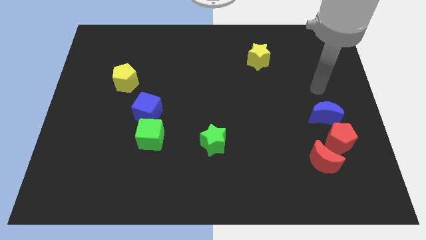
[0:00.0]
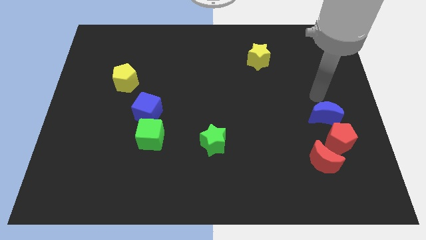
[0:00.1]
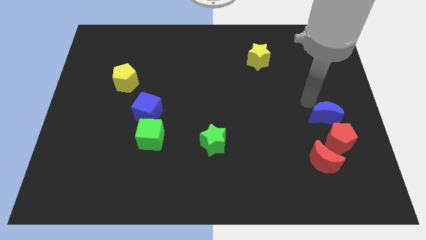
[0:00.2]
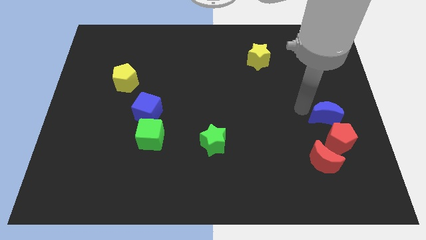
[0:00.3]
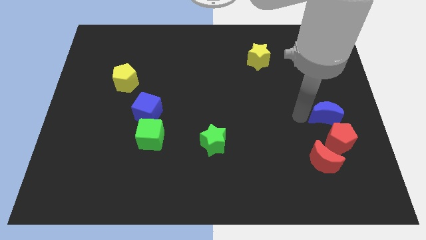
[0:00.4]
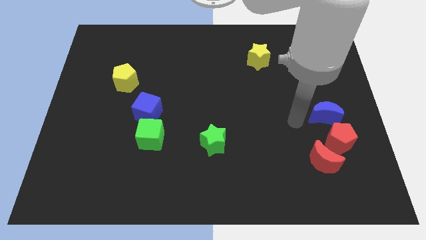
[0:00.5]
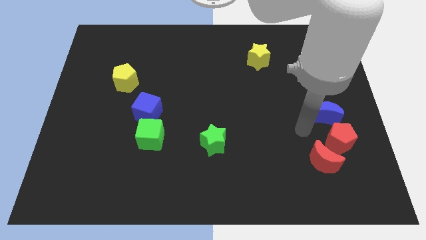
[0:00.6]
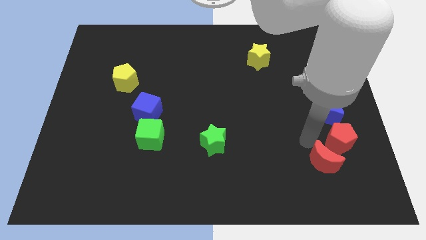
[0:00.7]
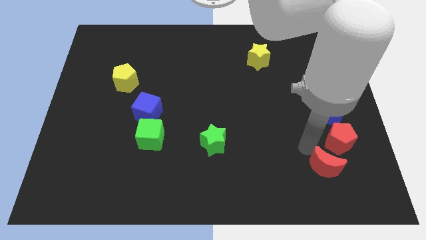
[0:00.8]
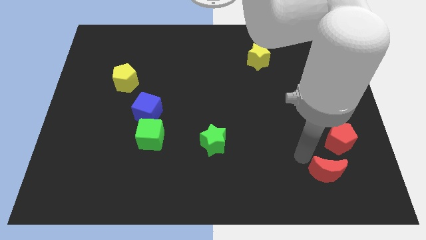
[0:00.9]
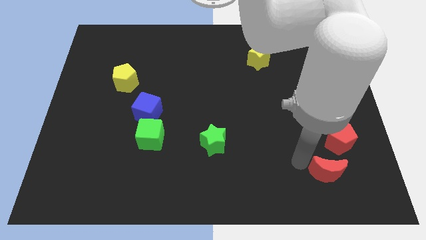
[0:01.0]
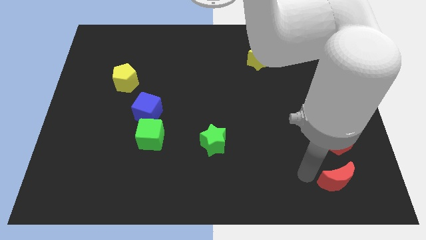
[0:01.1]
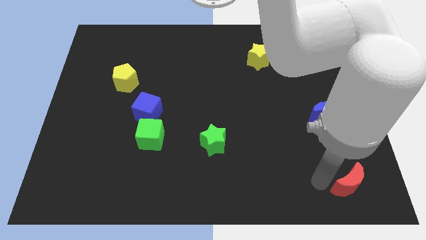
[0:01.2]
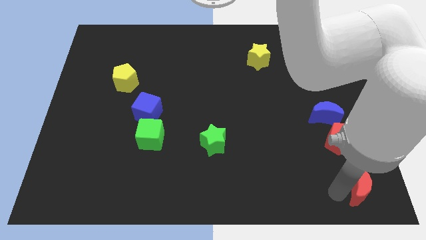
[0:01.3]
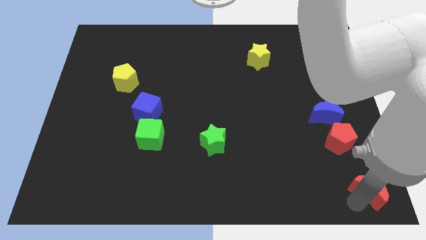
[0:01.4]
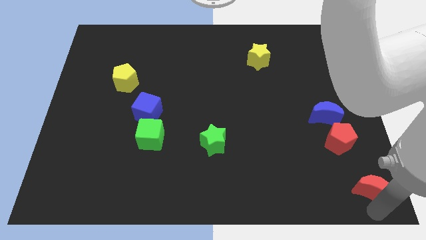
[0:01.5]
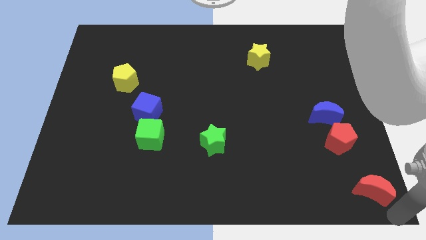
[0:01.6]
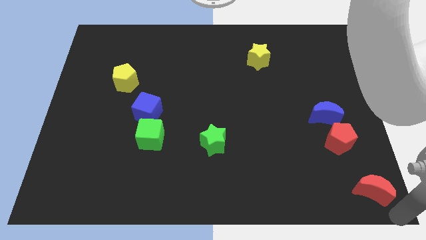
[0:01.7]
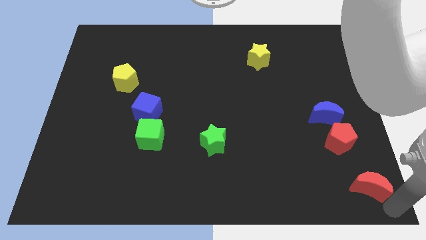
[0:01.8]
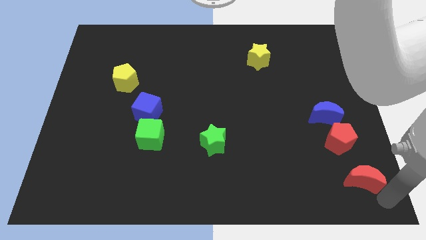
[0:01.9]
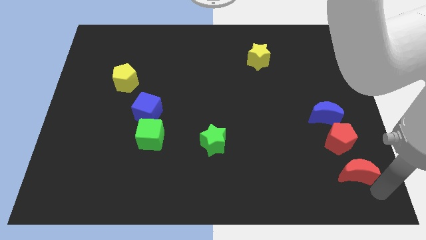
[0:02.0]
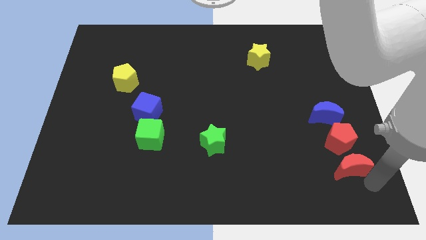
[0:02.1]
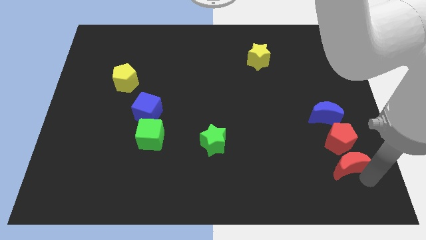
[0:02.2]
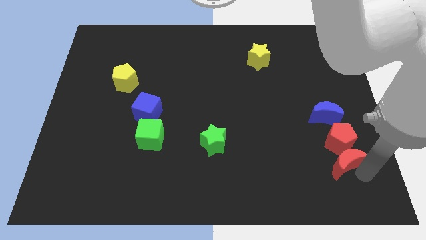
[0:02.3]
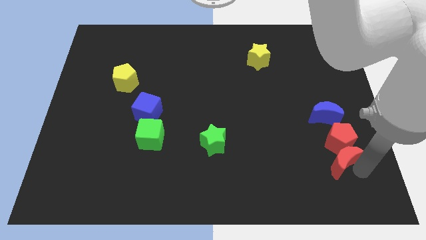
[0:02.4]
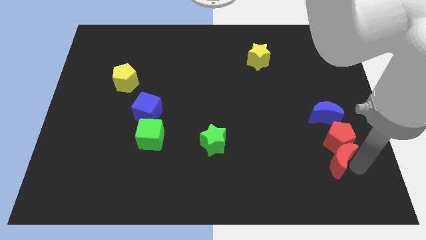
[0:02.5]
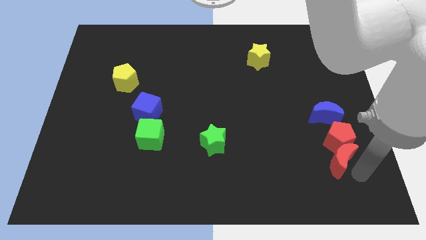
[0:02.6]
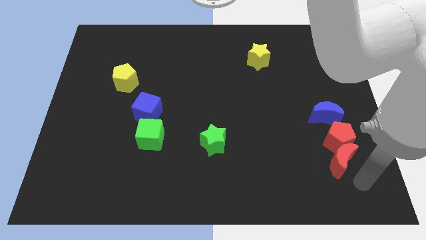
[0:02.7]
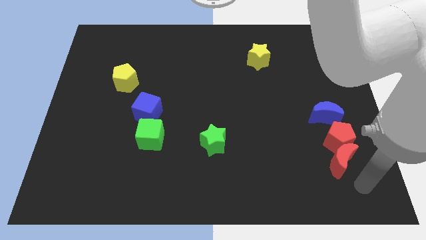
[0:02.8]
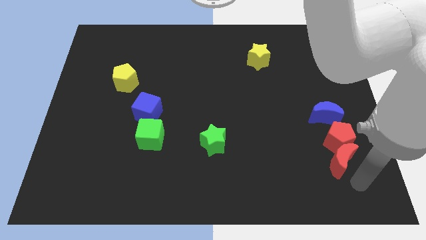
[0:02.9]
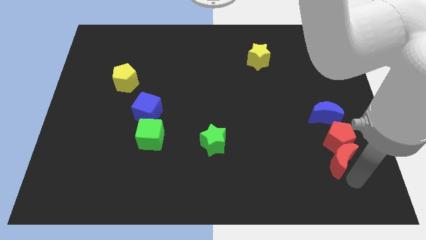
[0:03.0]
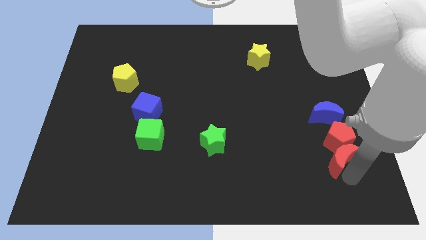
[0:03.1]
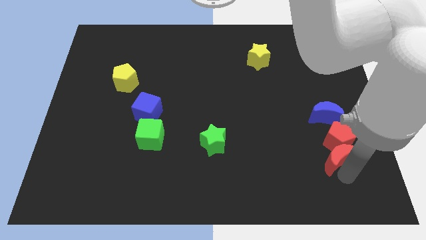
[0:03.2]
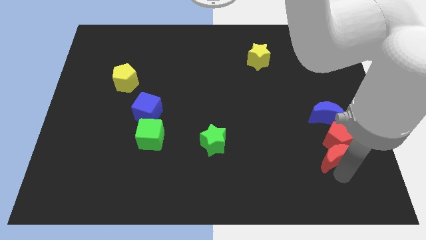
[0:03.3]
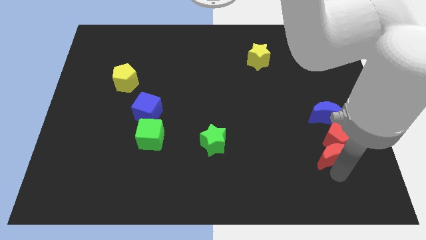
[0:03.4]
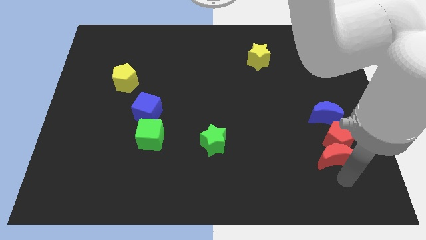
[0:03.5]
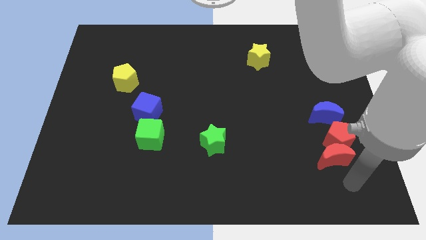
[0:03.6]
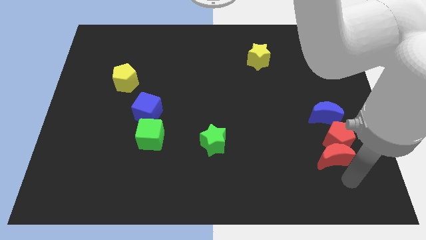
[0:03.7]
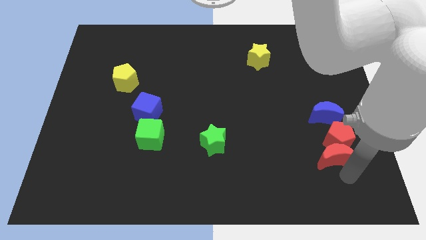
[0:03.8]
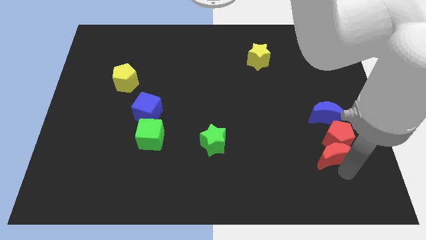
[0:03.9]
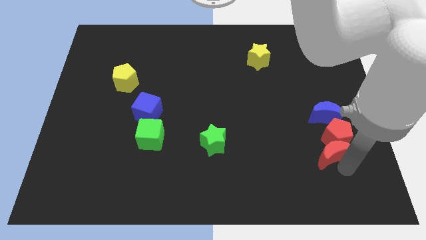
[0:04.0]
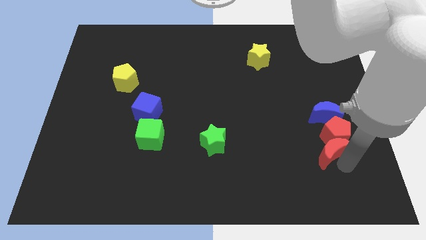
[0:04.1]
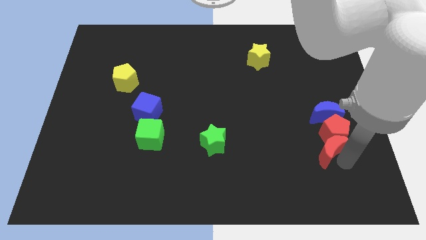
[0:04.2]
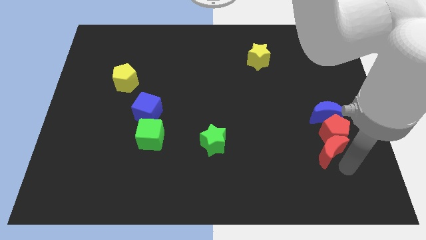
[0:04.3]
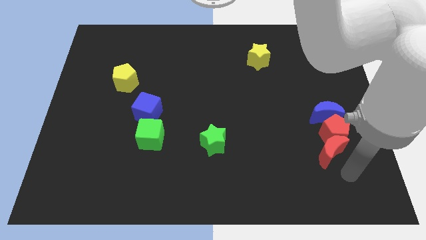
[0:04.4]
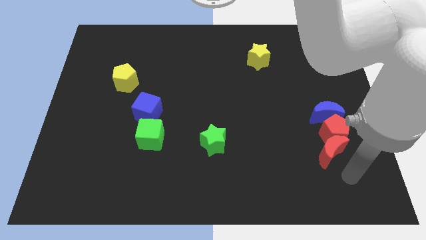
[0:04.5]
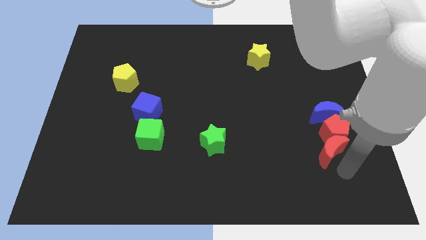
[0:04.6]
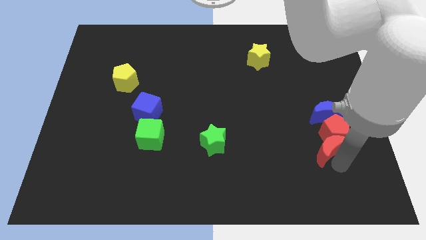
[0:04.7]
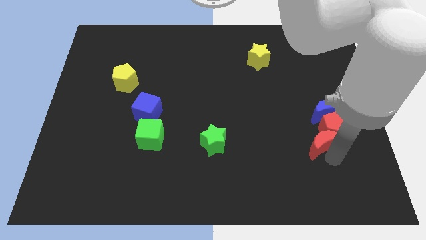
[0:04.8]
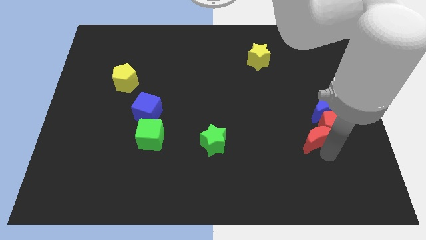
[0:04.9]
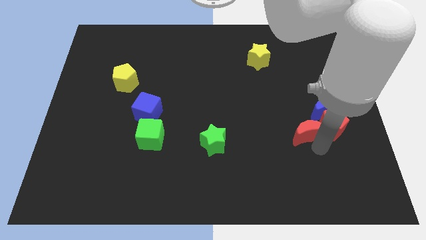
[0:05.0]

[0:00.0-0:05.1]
slide the red moon somewhat up

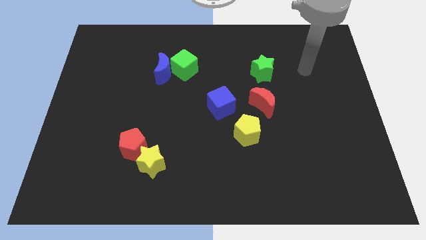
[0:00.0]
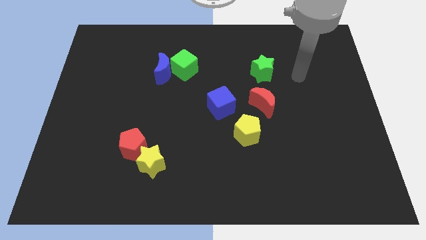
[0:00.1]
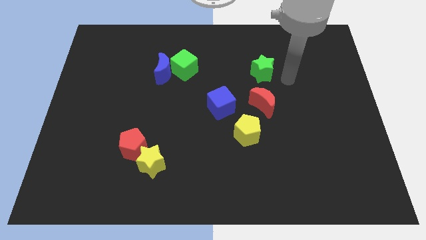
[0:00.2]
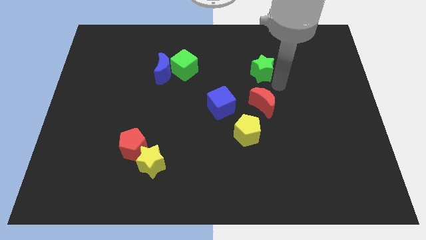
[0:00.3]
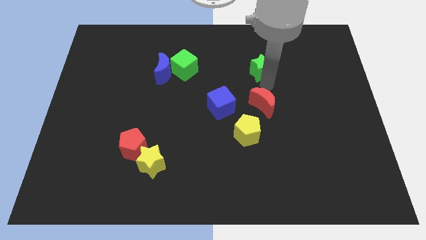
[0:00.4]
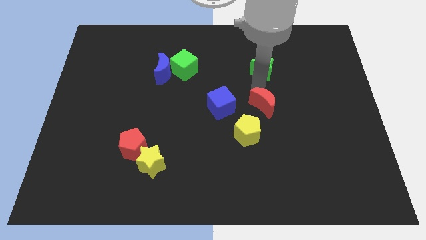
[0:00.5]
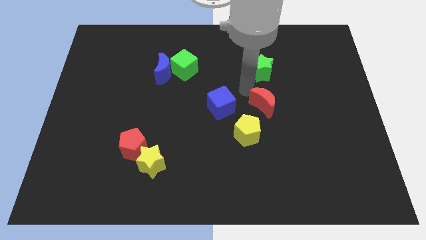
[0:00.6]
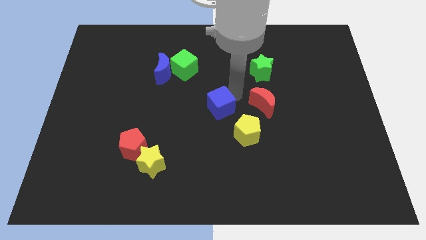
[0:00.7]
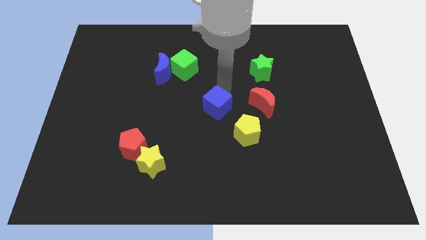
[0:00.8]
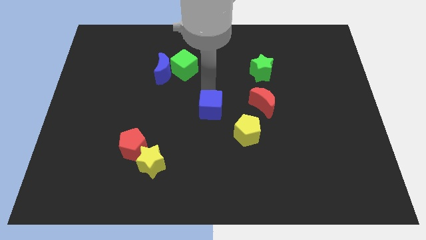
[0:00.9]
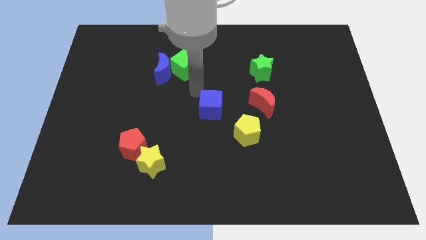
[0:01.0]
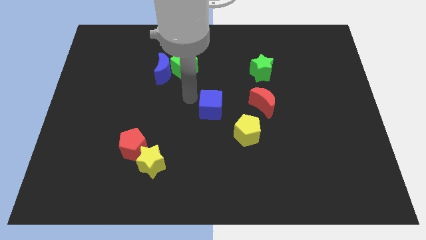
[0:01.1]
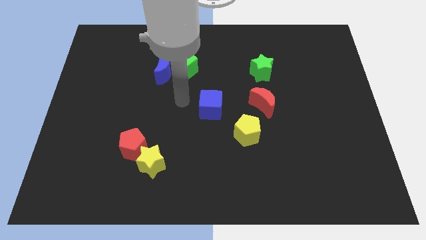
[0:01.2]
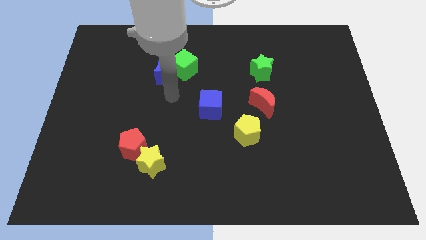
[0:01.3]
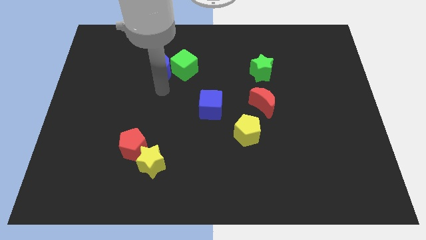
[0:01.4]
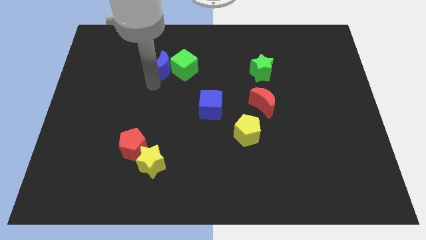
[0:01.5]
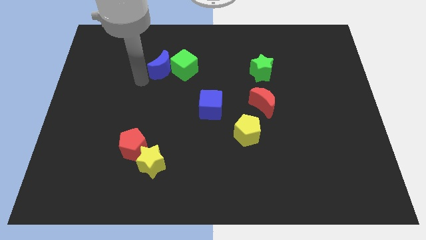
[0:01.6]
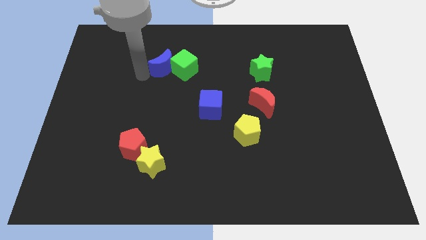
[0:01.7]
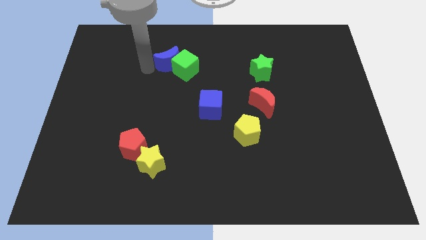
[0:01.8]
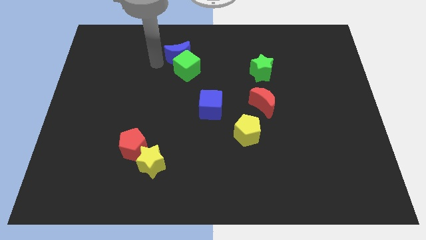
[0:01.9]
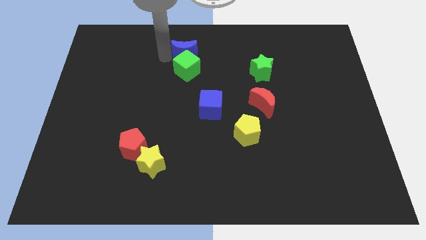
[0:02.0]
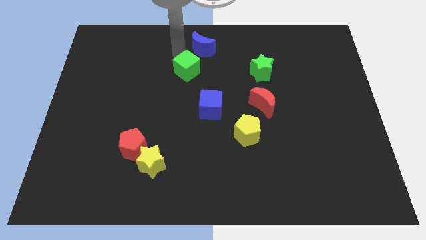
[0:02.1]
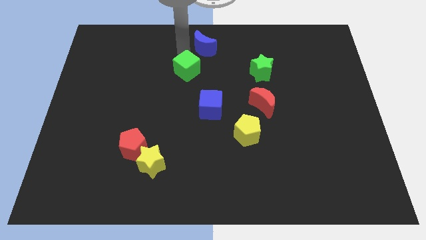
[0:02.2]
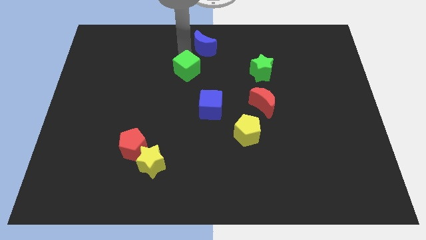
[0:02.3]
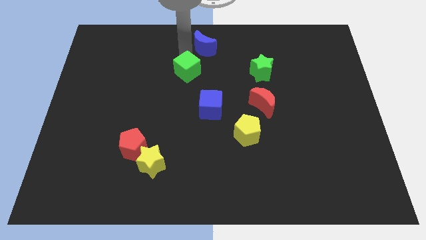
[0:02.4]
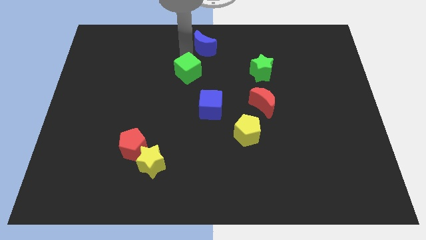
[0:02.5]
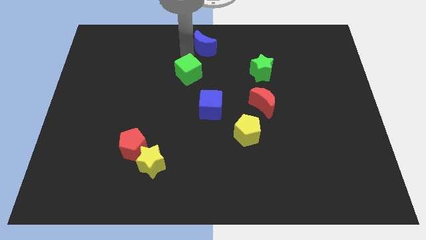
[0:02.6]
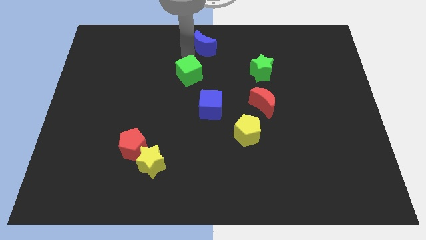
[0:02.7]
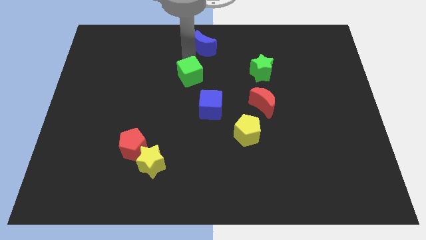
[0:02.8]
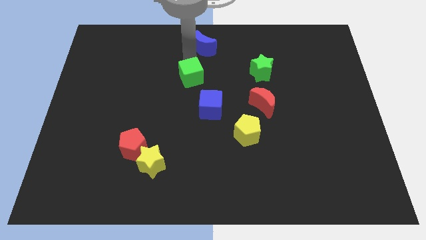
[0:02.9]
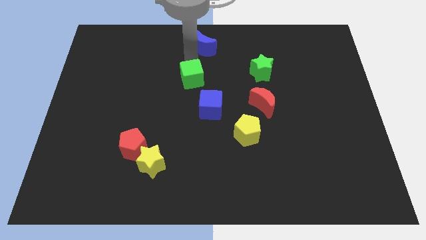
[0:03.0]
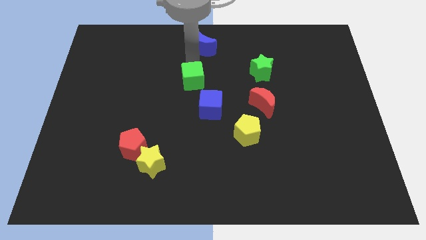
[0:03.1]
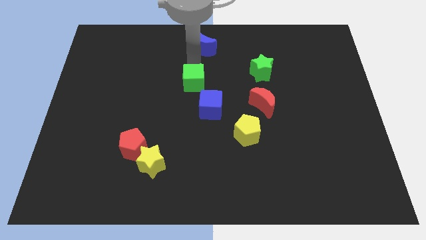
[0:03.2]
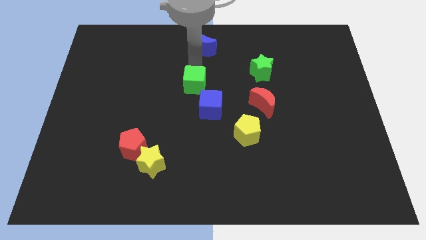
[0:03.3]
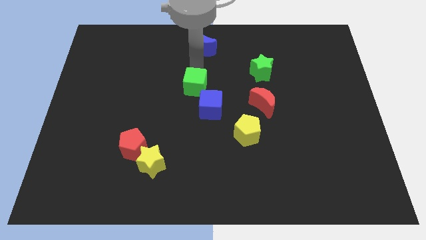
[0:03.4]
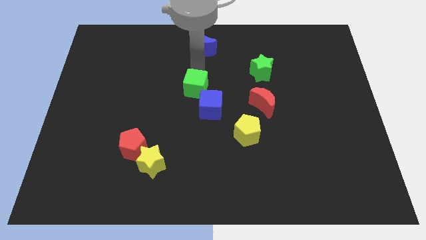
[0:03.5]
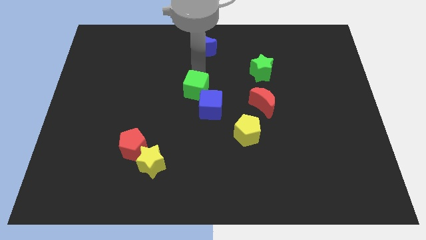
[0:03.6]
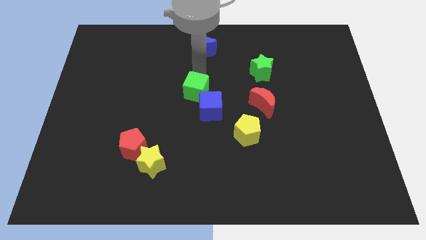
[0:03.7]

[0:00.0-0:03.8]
push the green cube a little down
